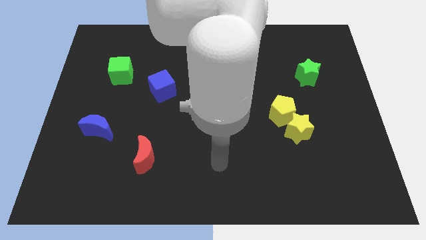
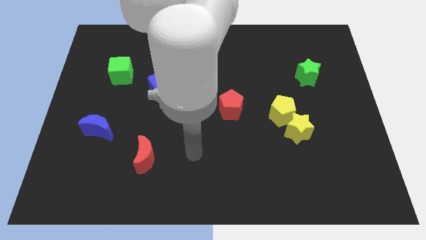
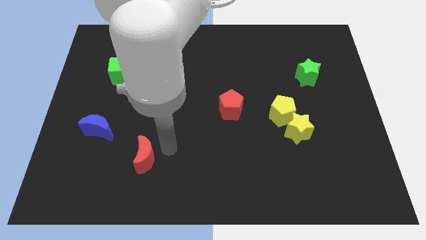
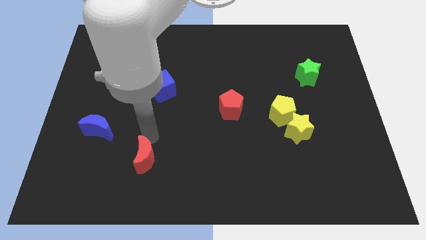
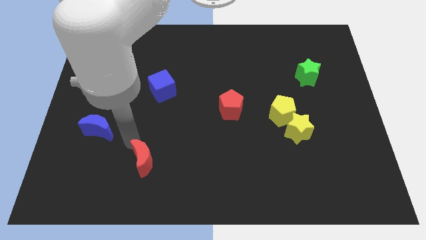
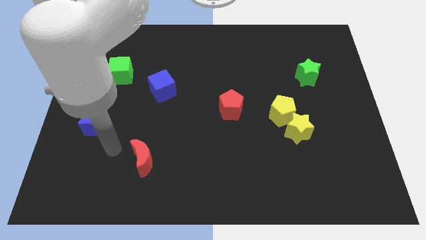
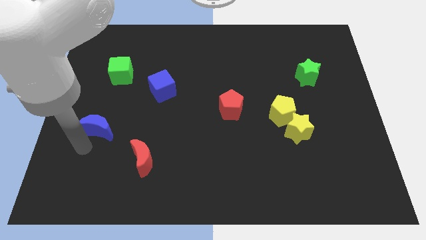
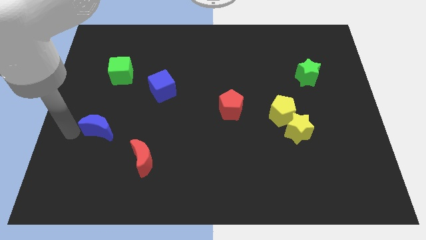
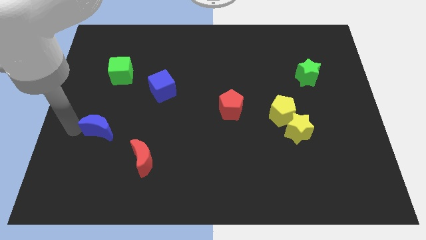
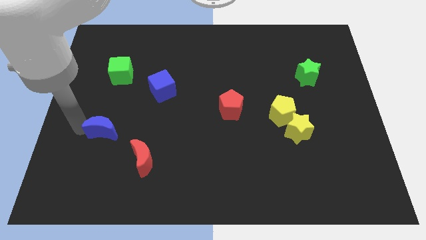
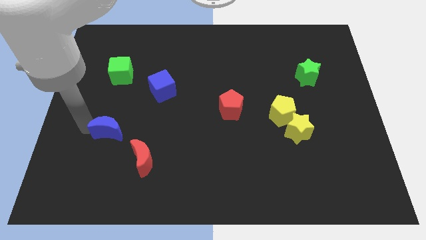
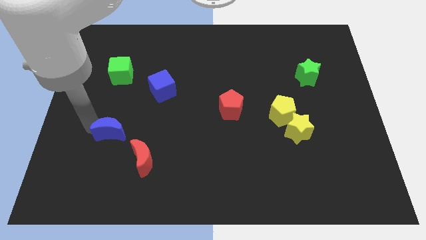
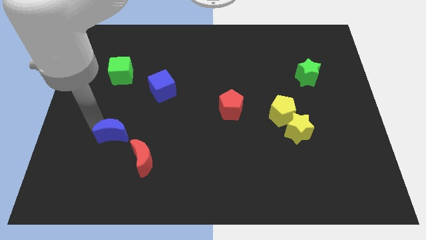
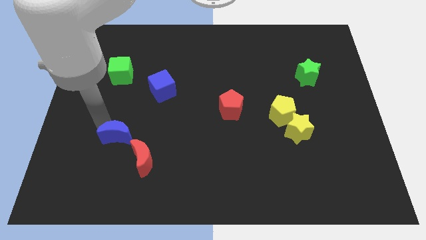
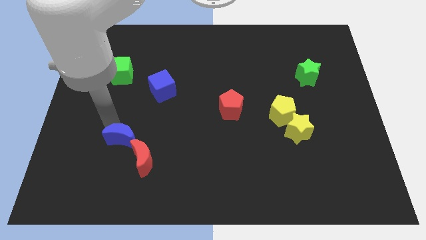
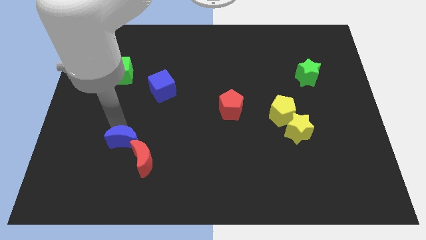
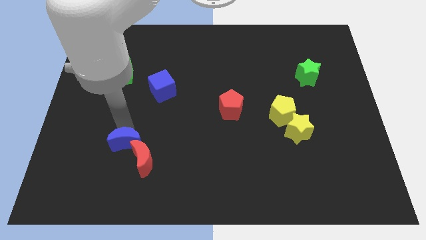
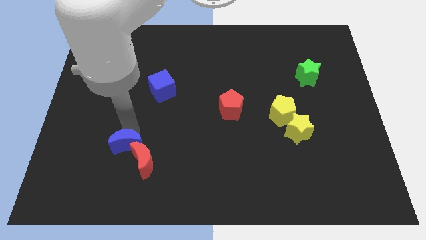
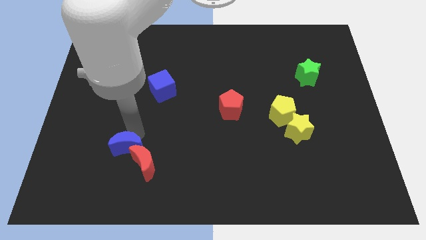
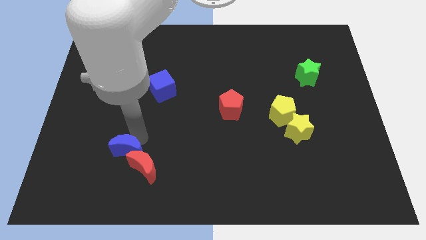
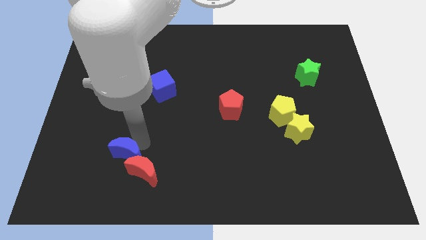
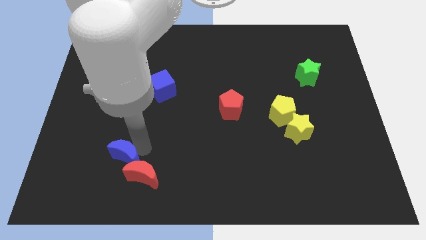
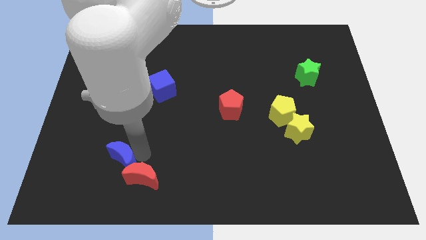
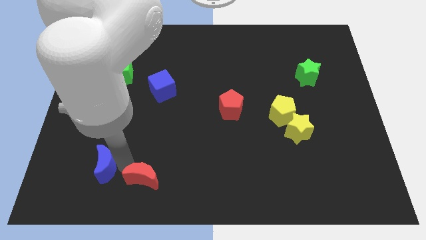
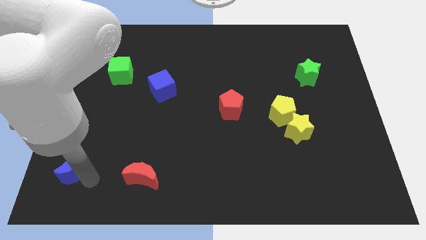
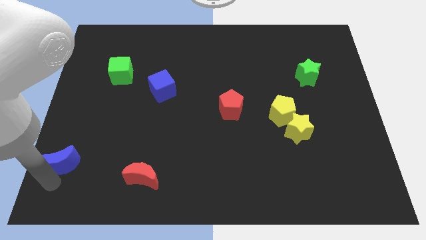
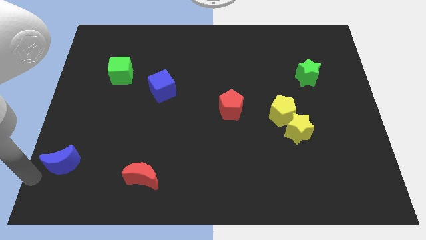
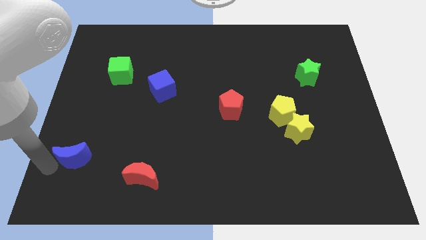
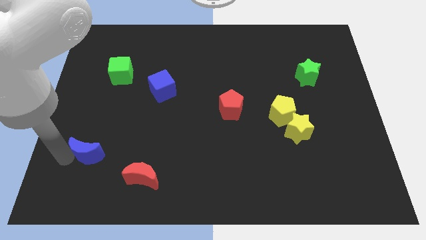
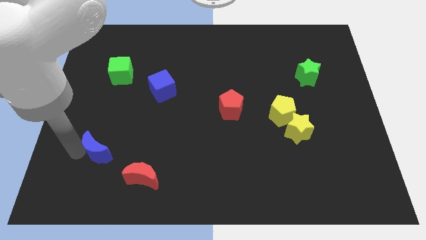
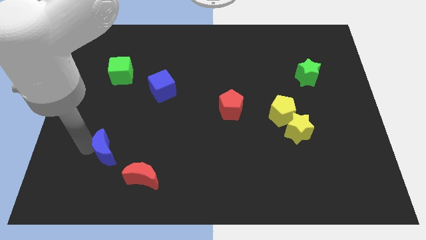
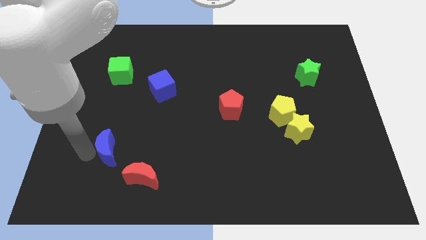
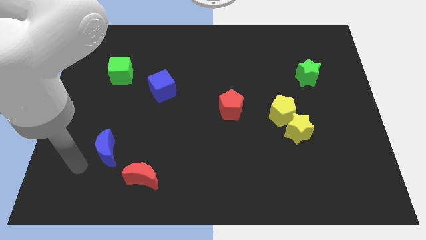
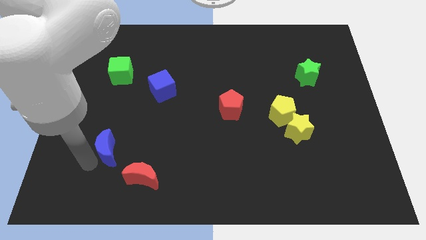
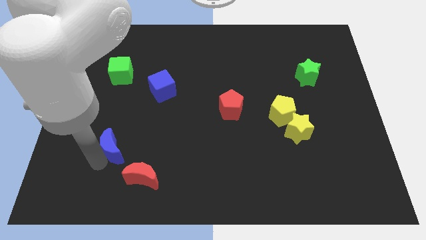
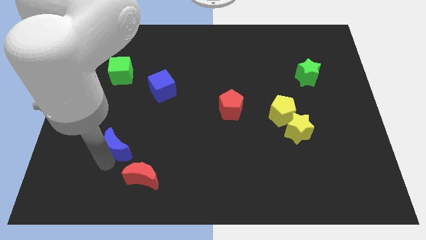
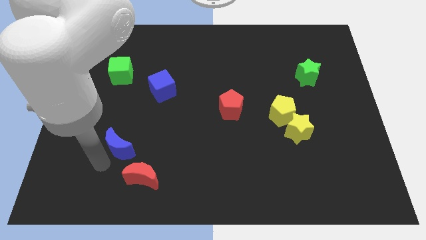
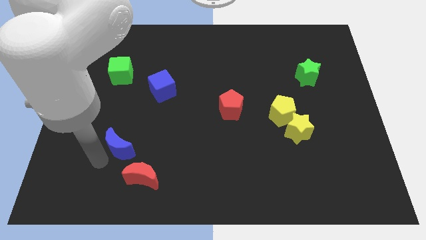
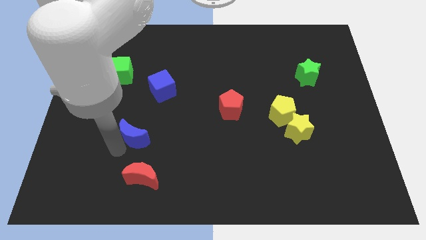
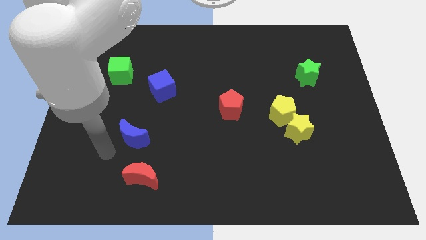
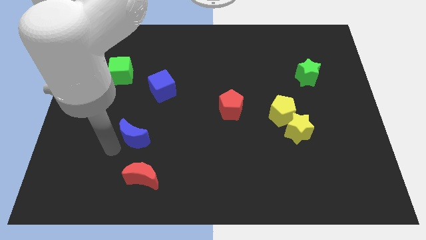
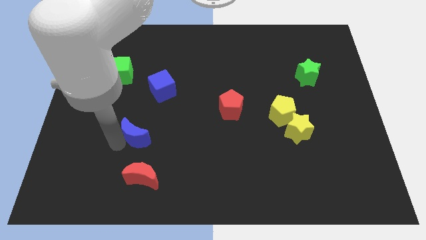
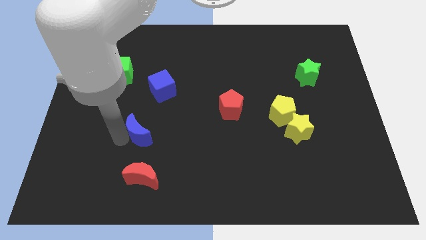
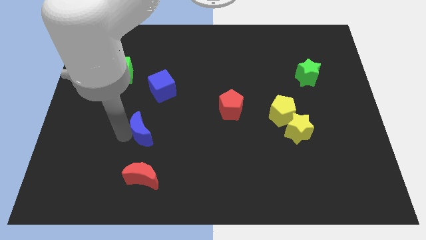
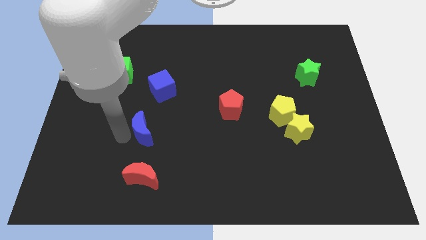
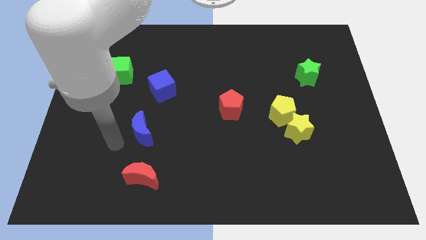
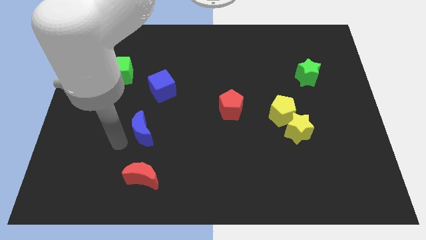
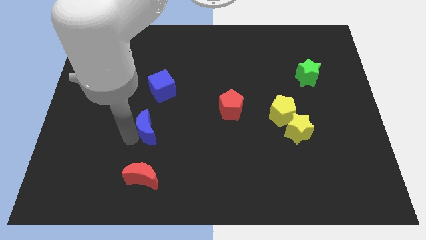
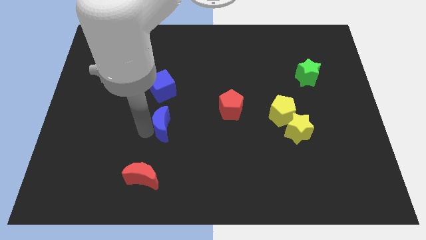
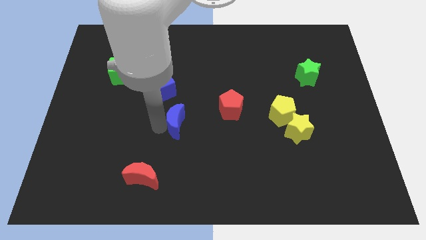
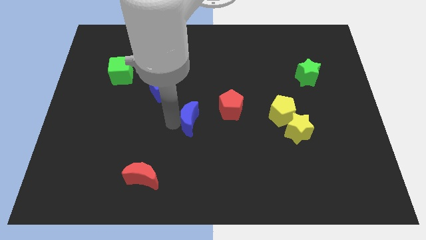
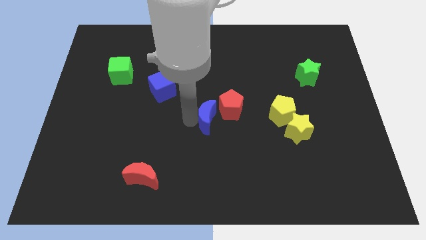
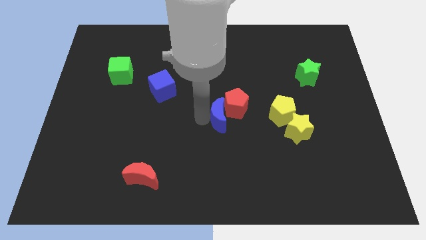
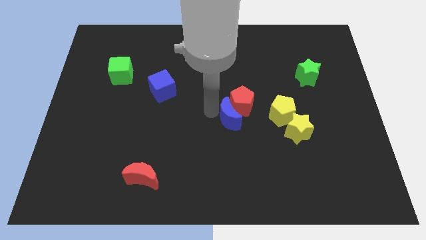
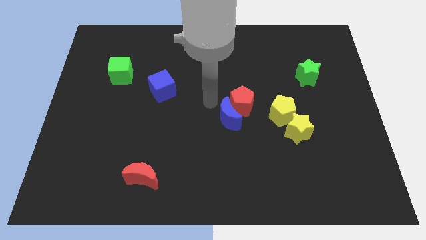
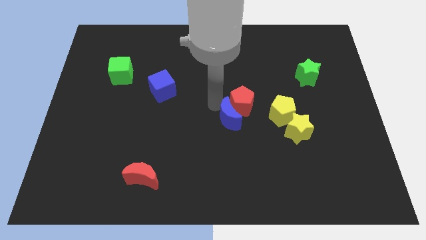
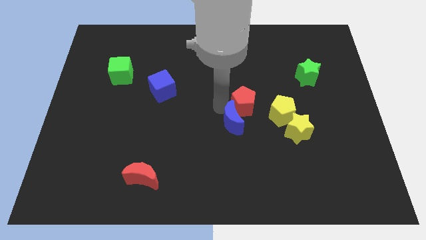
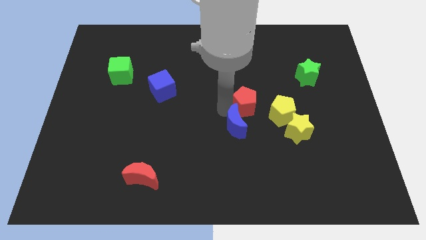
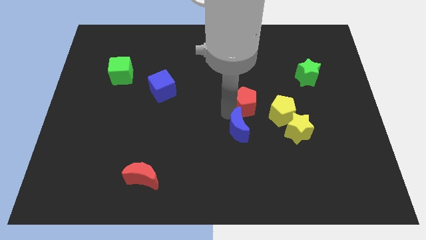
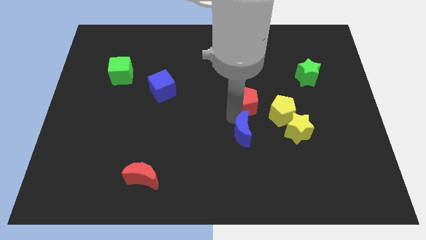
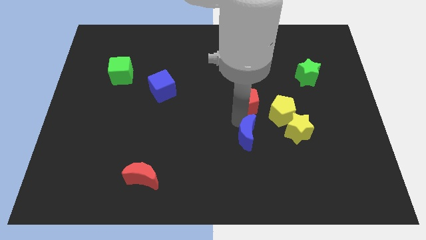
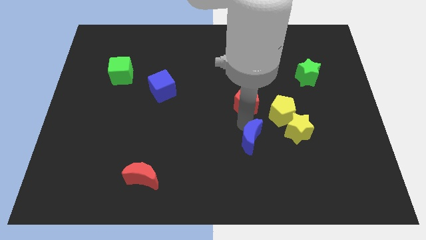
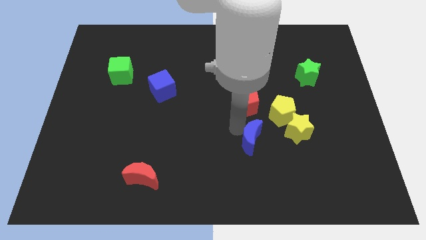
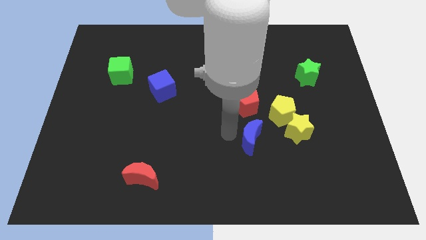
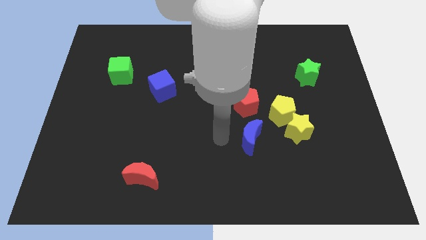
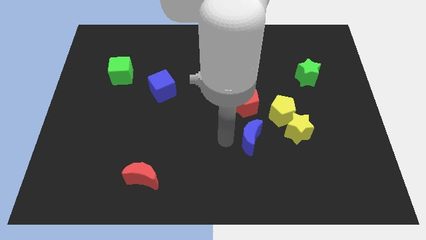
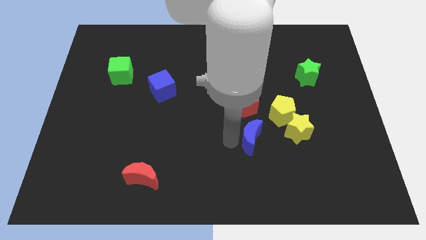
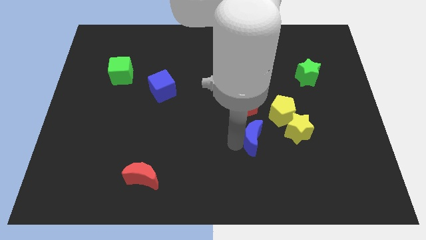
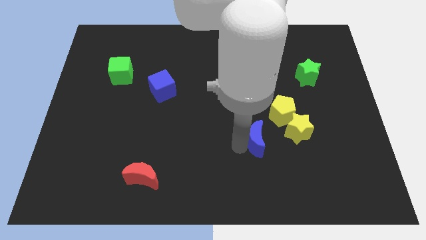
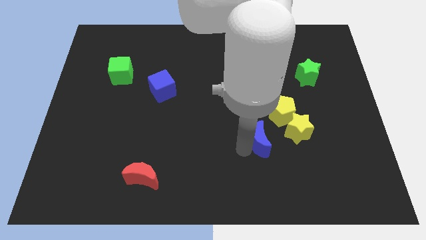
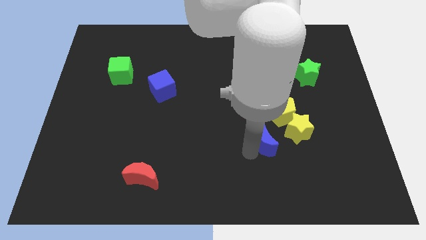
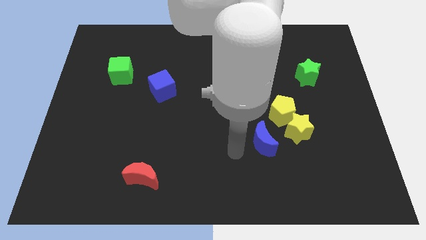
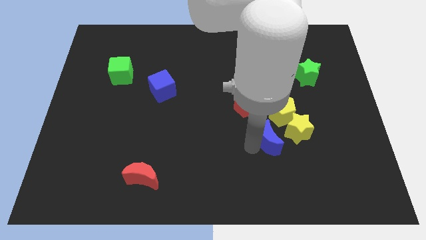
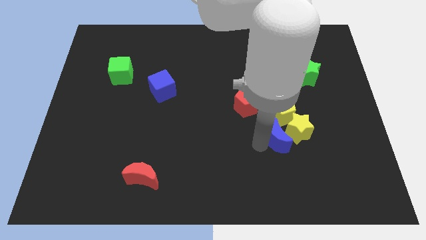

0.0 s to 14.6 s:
slide the blue moon towards the yellow star
